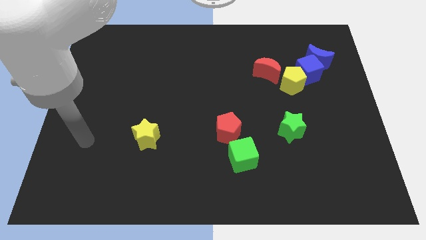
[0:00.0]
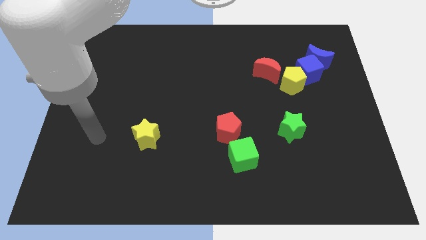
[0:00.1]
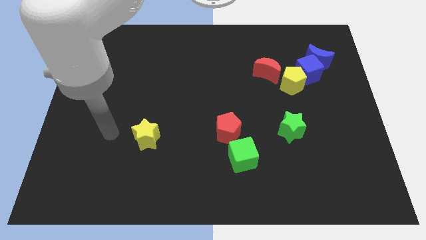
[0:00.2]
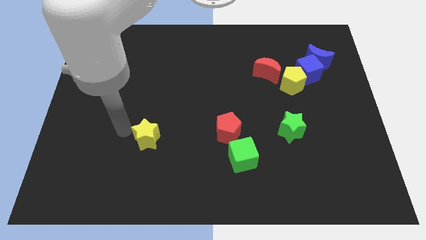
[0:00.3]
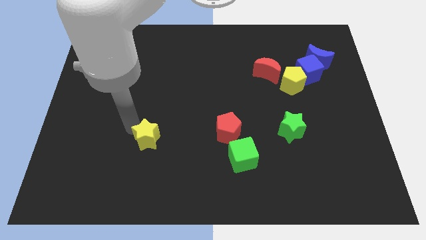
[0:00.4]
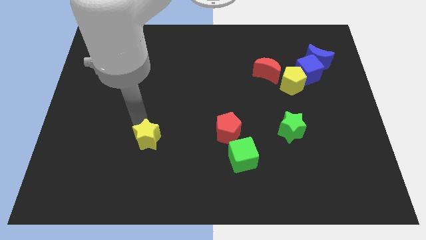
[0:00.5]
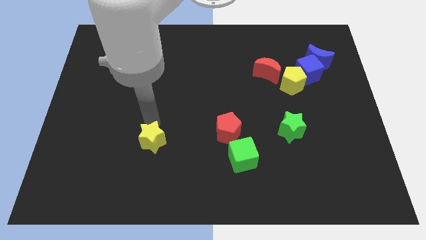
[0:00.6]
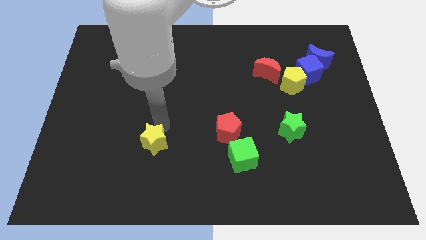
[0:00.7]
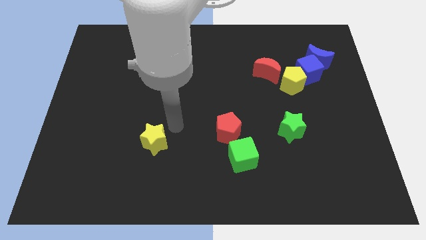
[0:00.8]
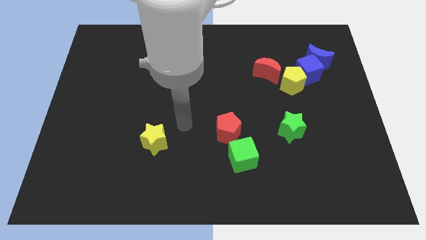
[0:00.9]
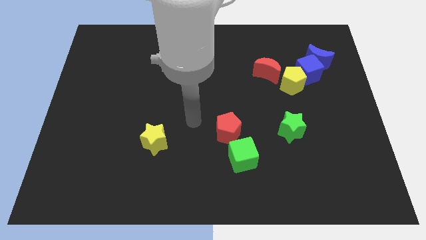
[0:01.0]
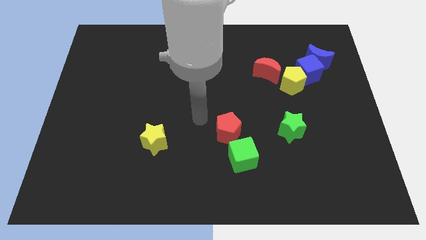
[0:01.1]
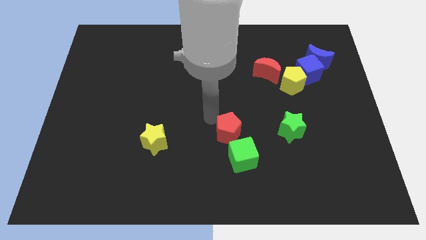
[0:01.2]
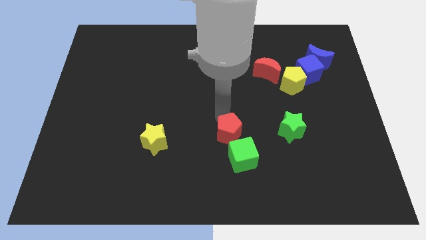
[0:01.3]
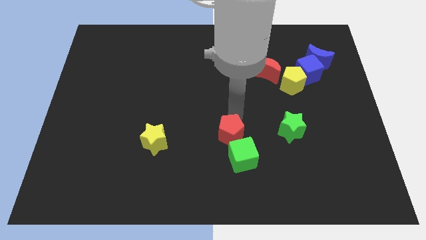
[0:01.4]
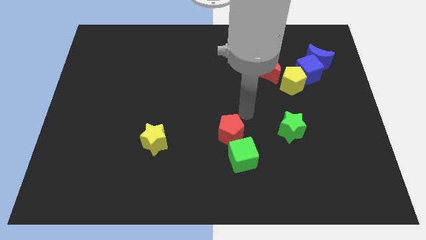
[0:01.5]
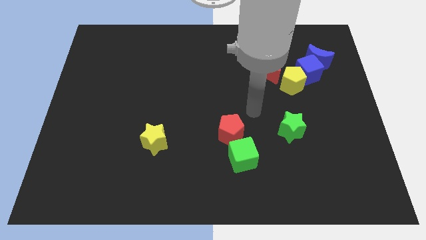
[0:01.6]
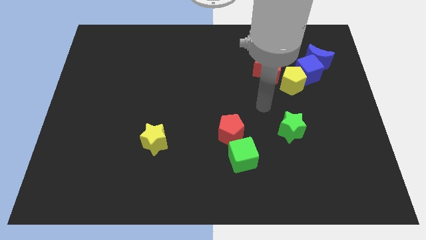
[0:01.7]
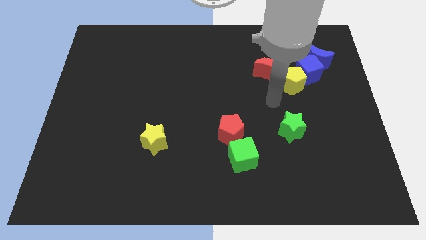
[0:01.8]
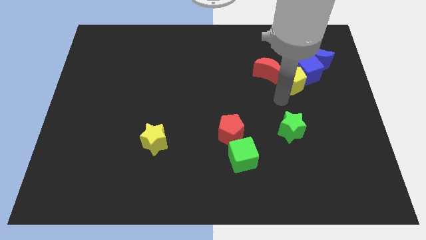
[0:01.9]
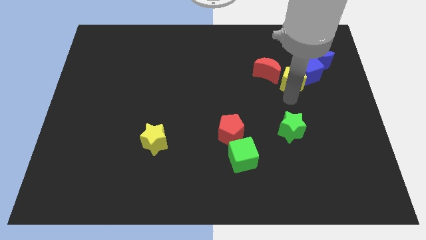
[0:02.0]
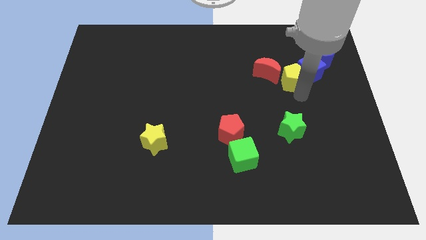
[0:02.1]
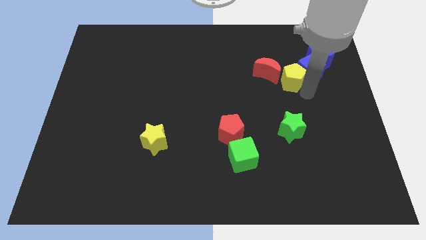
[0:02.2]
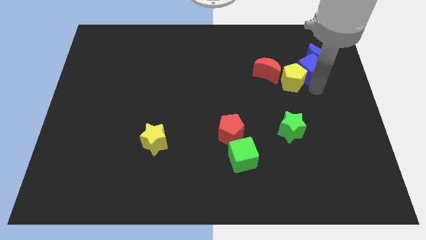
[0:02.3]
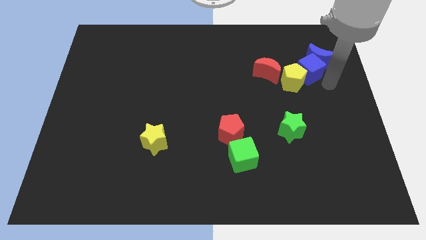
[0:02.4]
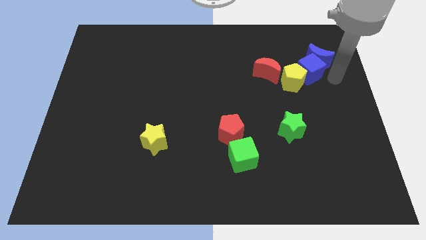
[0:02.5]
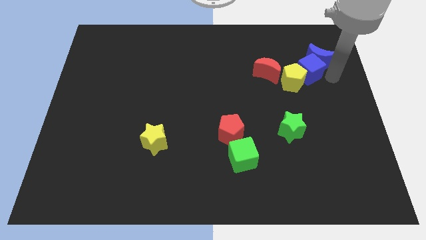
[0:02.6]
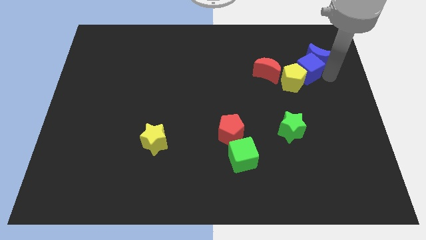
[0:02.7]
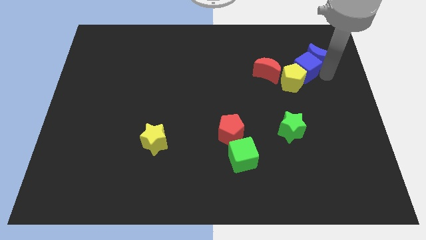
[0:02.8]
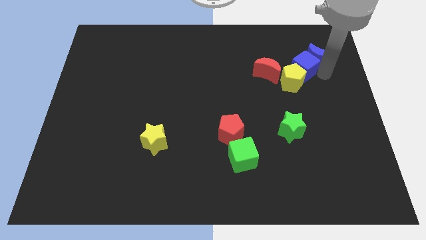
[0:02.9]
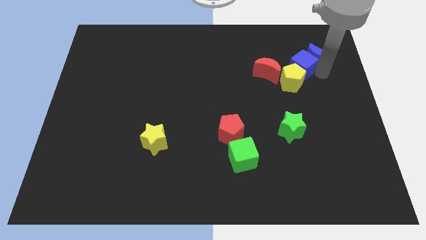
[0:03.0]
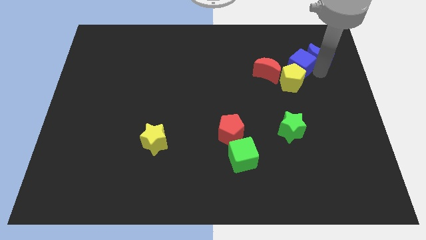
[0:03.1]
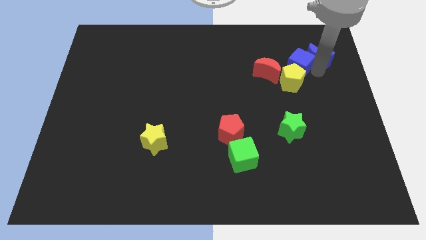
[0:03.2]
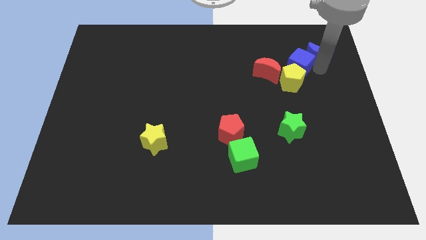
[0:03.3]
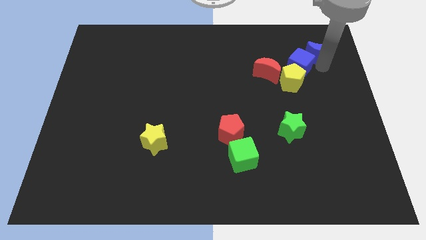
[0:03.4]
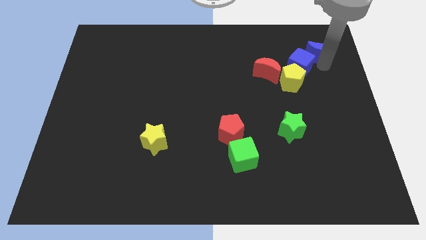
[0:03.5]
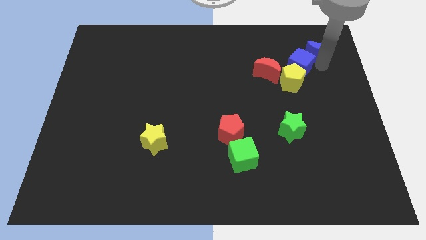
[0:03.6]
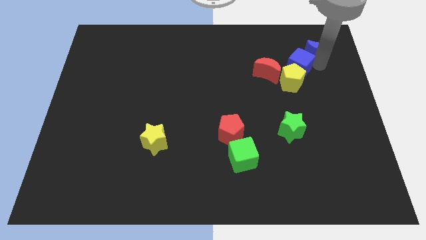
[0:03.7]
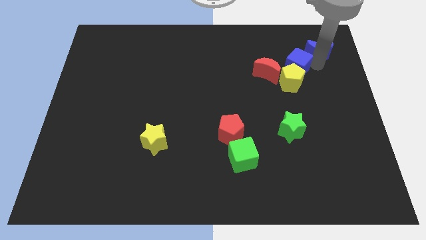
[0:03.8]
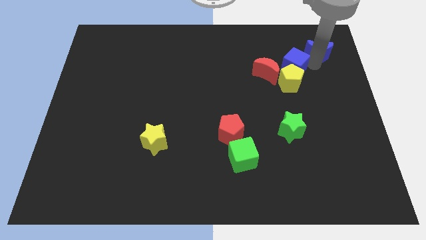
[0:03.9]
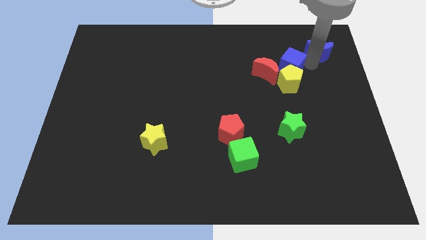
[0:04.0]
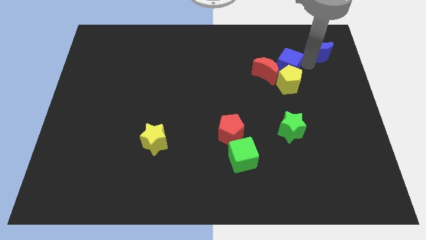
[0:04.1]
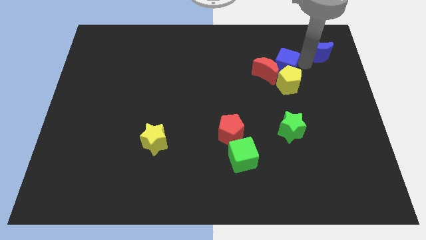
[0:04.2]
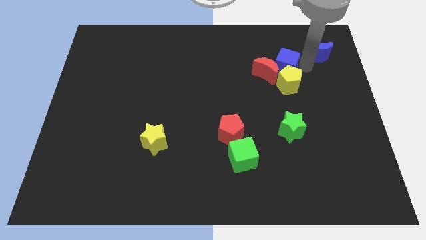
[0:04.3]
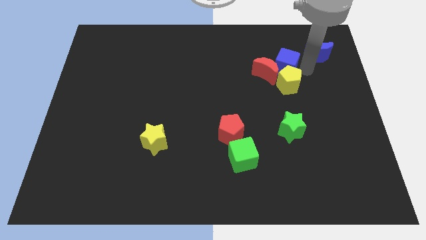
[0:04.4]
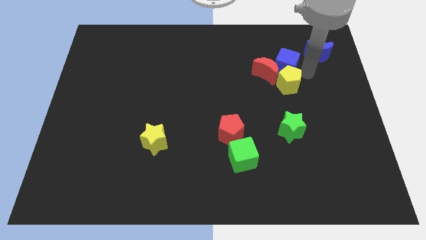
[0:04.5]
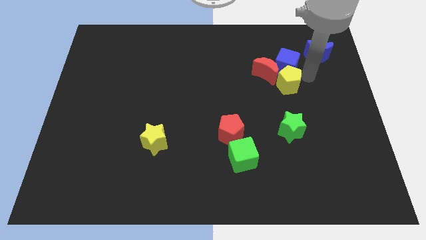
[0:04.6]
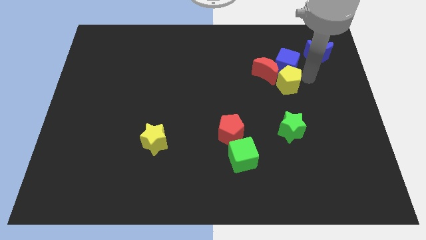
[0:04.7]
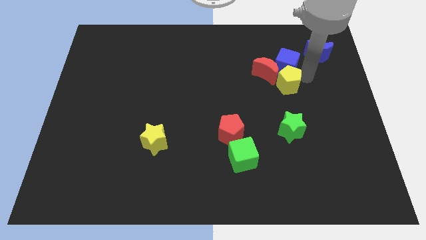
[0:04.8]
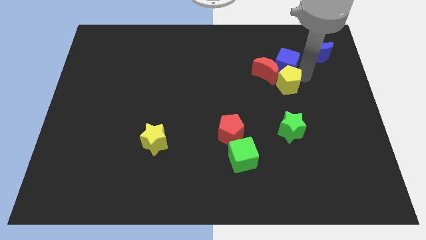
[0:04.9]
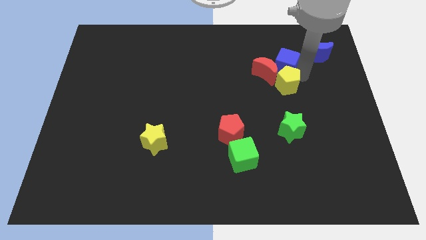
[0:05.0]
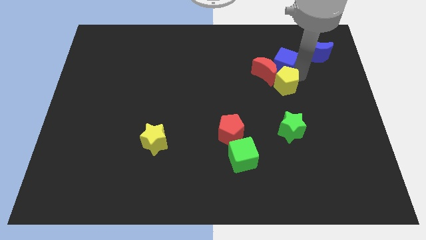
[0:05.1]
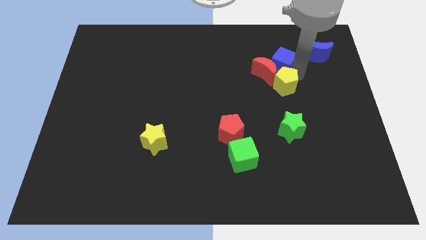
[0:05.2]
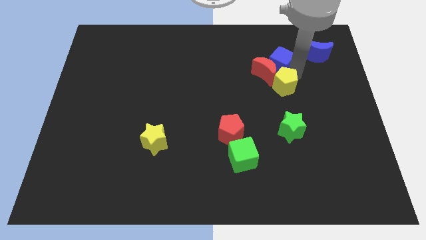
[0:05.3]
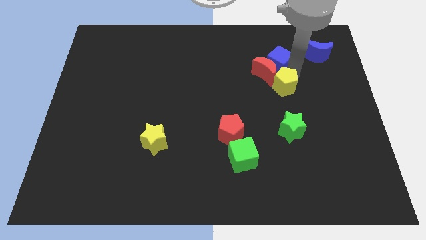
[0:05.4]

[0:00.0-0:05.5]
push the blue cube to the left a little bit

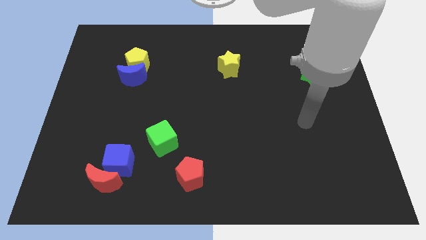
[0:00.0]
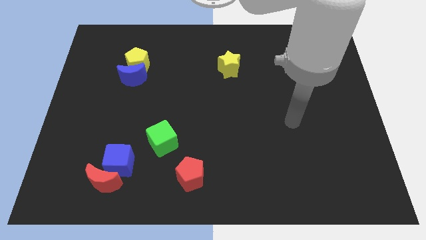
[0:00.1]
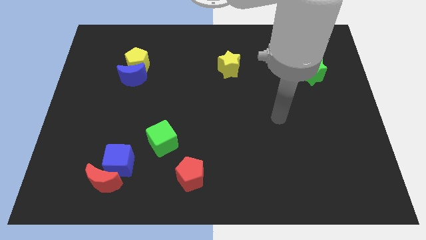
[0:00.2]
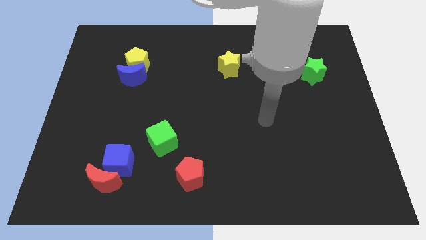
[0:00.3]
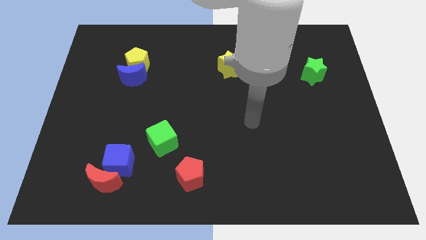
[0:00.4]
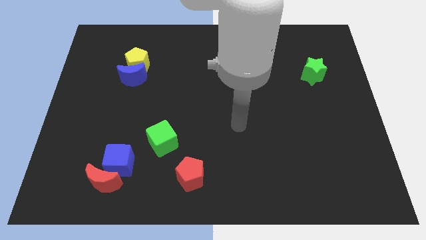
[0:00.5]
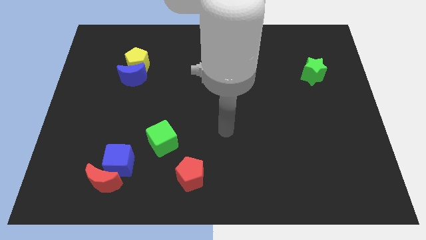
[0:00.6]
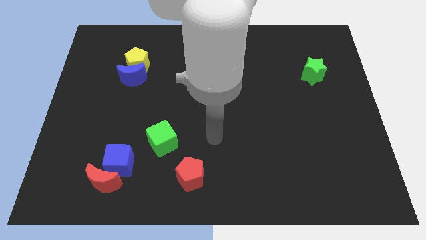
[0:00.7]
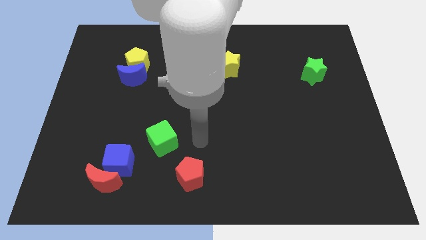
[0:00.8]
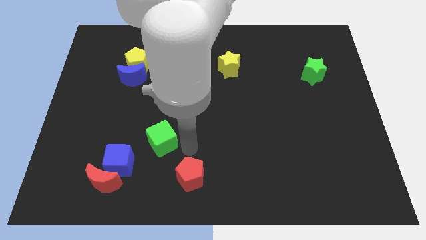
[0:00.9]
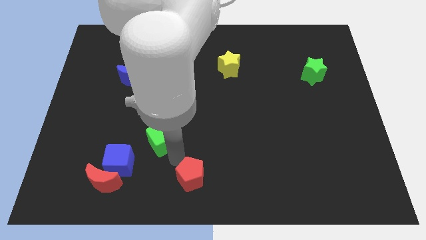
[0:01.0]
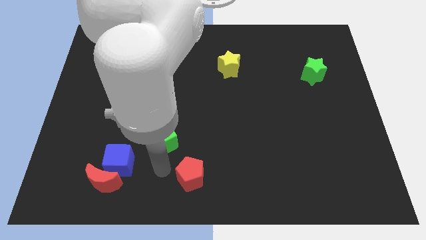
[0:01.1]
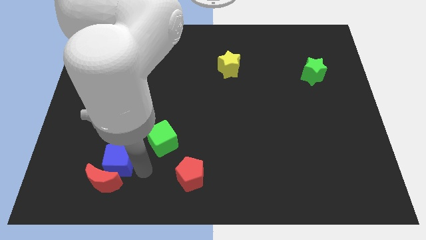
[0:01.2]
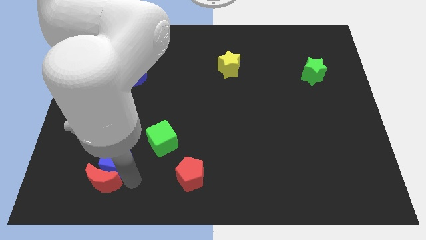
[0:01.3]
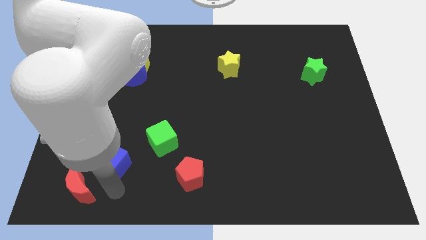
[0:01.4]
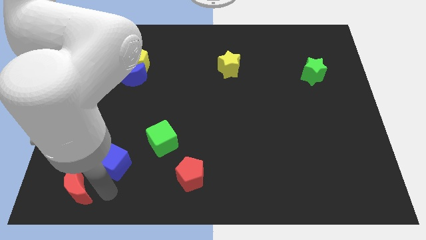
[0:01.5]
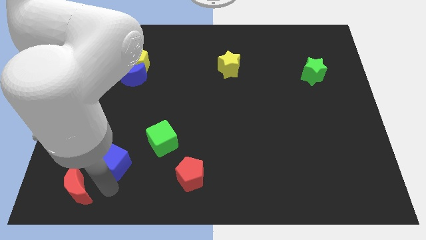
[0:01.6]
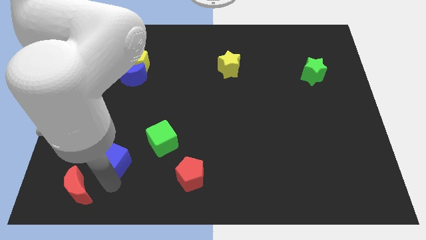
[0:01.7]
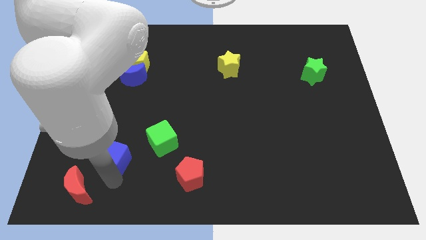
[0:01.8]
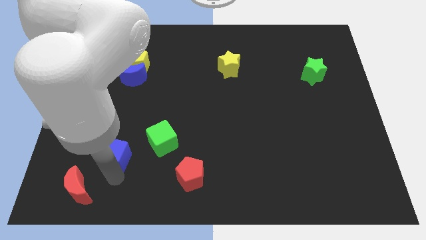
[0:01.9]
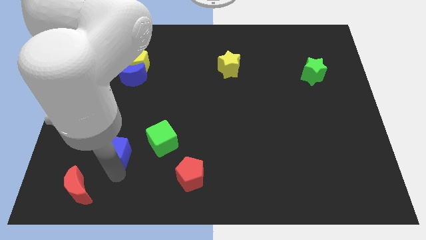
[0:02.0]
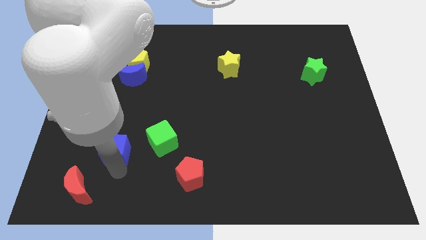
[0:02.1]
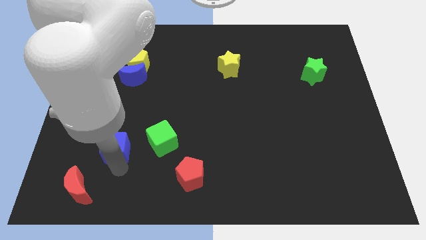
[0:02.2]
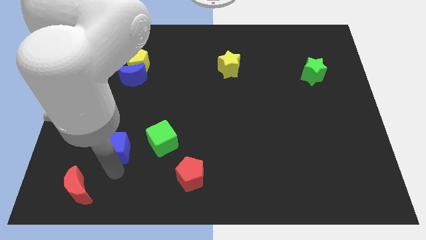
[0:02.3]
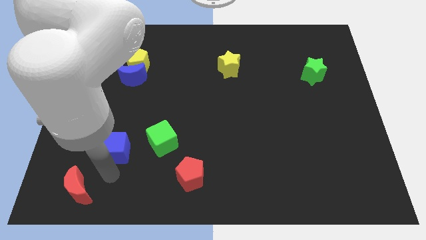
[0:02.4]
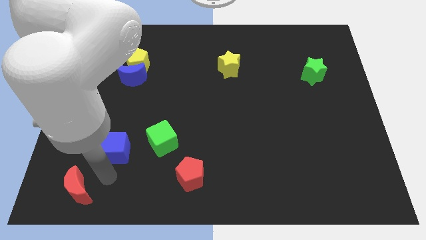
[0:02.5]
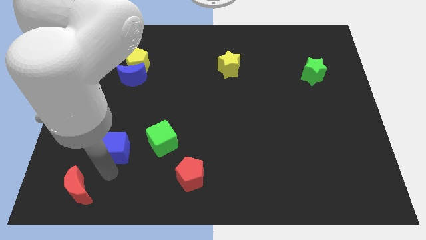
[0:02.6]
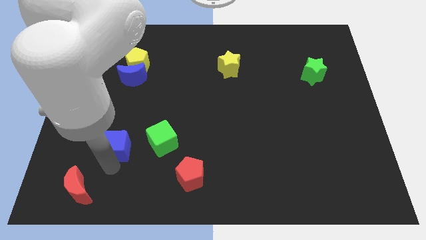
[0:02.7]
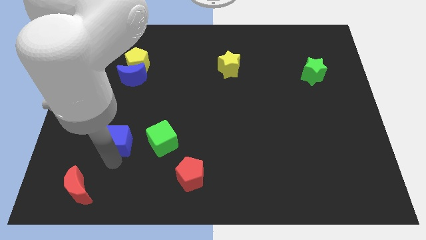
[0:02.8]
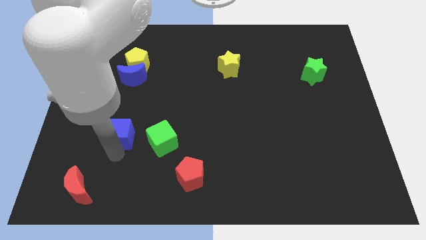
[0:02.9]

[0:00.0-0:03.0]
move the blue cube upwards a little bit
